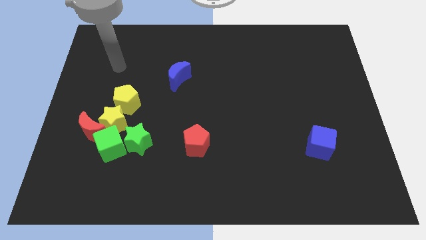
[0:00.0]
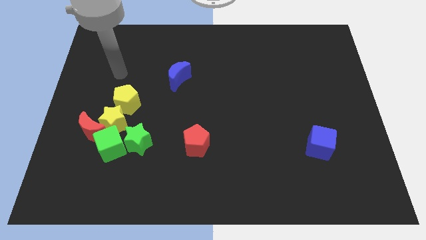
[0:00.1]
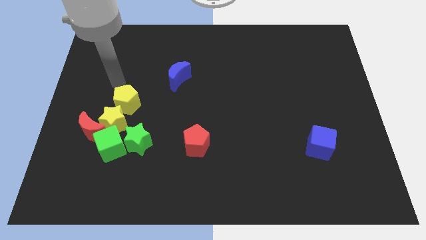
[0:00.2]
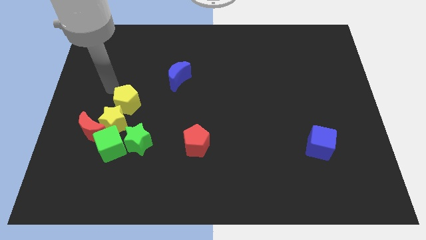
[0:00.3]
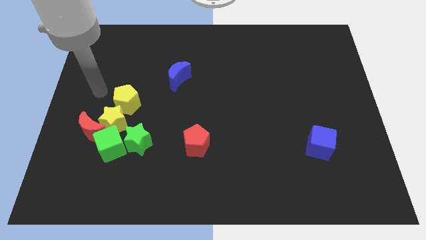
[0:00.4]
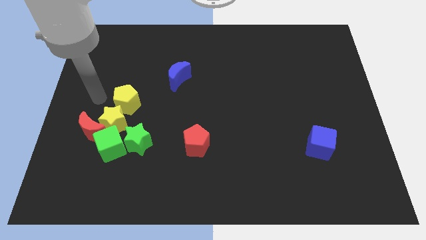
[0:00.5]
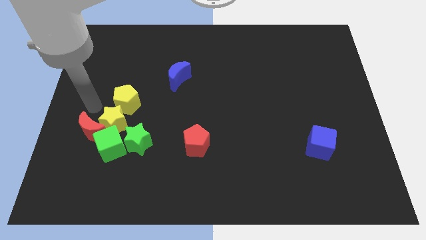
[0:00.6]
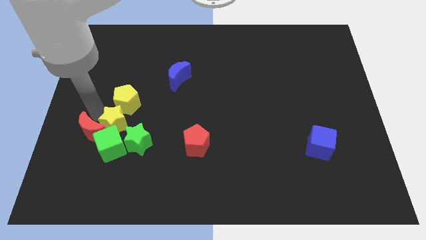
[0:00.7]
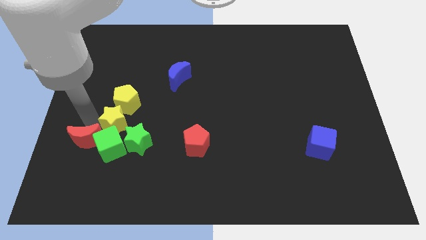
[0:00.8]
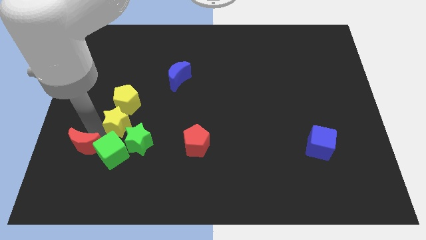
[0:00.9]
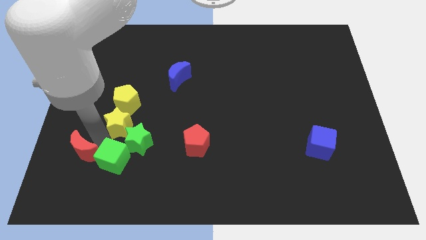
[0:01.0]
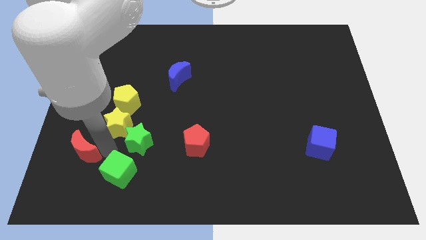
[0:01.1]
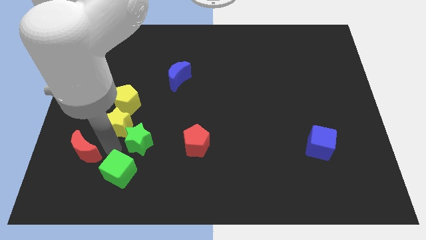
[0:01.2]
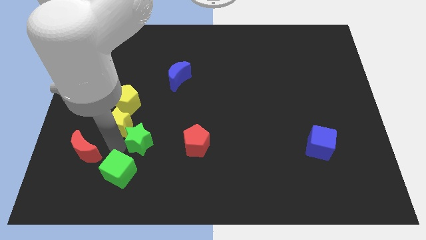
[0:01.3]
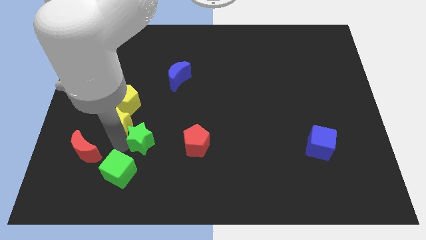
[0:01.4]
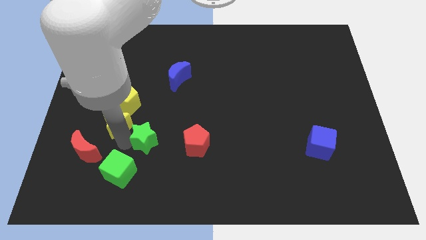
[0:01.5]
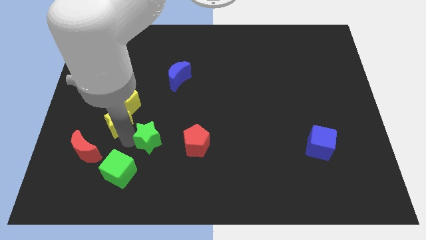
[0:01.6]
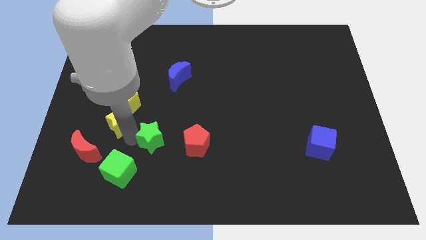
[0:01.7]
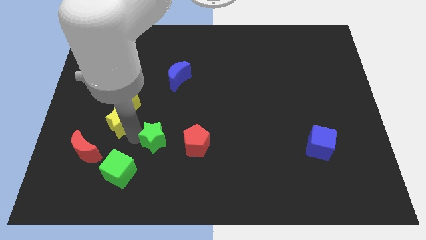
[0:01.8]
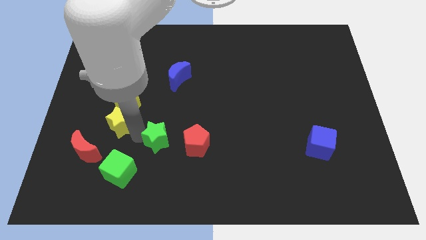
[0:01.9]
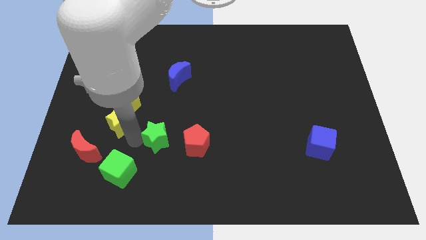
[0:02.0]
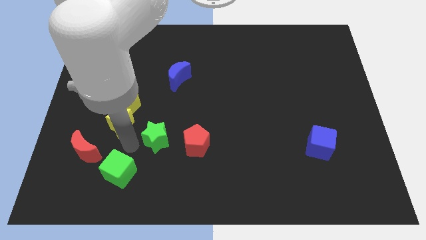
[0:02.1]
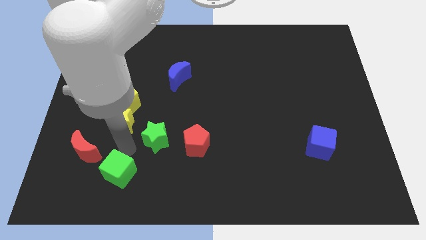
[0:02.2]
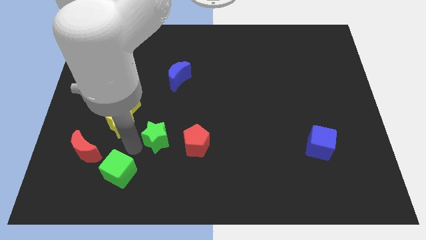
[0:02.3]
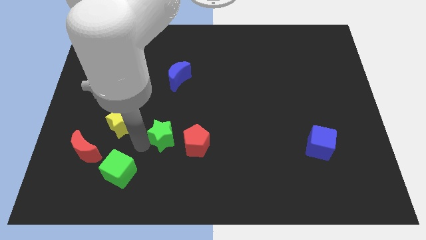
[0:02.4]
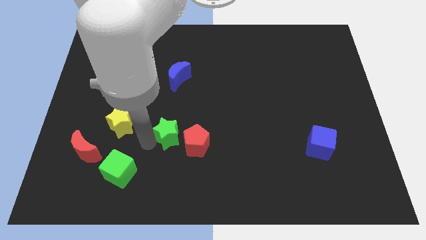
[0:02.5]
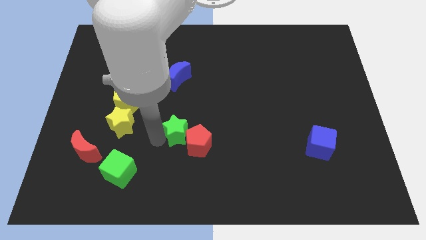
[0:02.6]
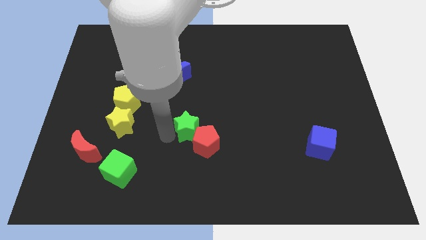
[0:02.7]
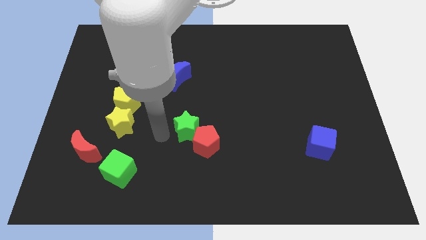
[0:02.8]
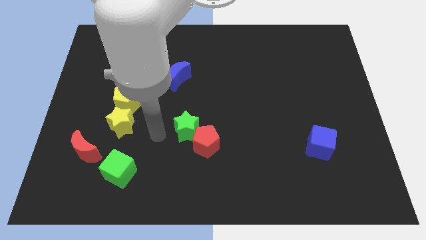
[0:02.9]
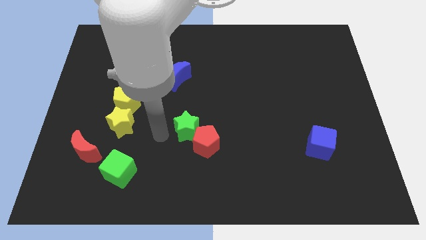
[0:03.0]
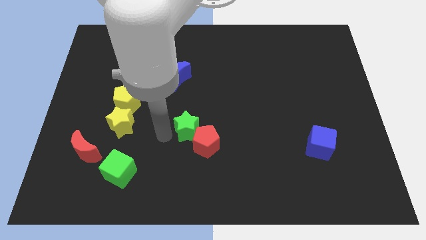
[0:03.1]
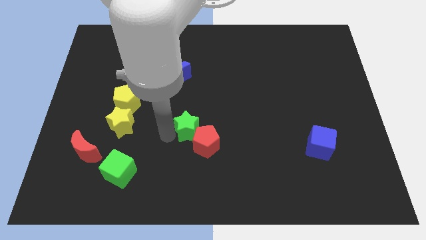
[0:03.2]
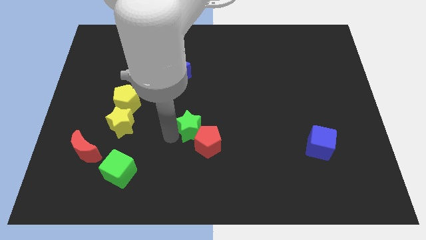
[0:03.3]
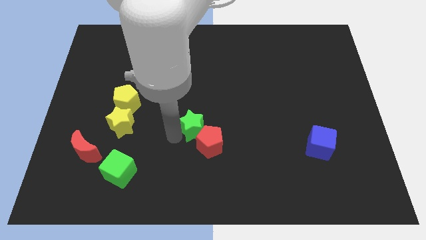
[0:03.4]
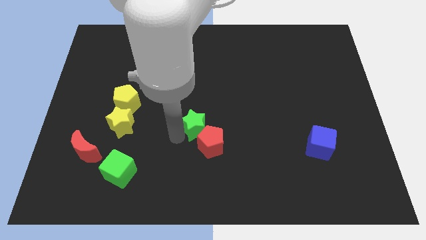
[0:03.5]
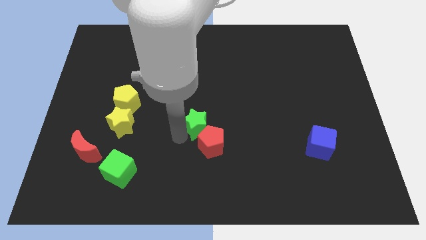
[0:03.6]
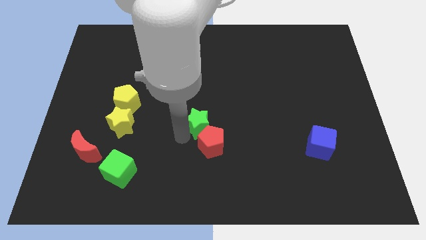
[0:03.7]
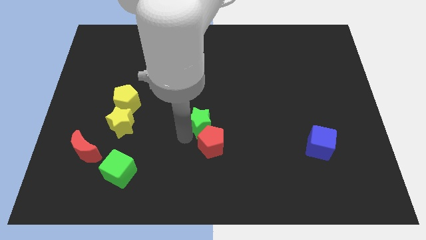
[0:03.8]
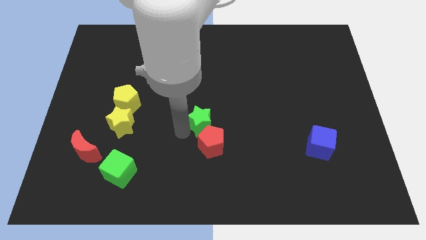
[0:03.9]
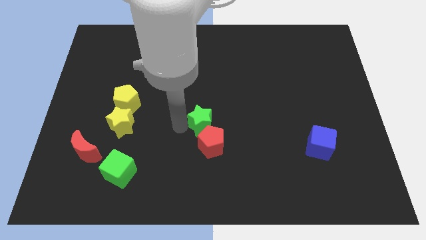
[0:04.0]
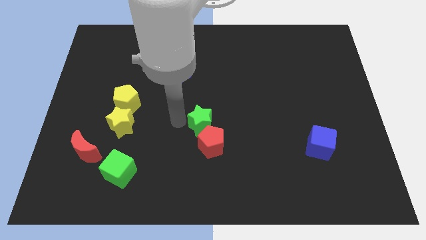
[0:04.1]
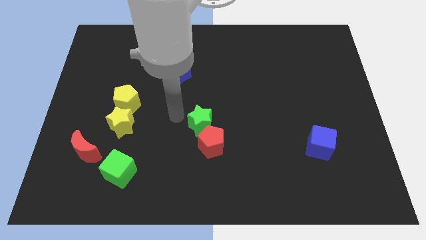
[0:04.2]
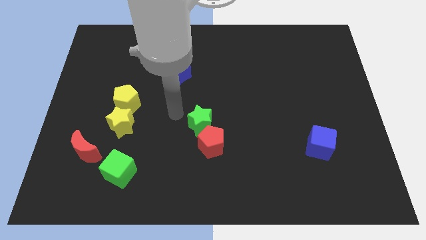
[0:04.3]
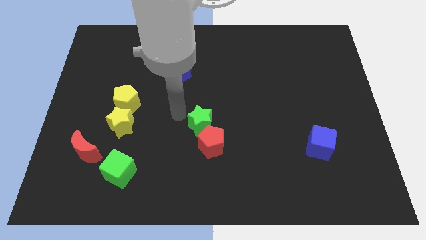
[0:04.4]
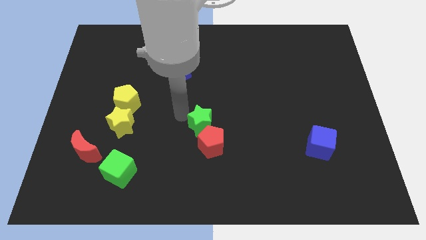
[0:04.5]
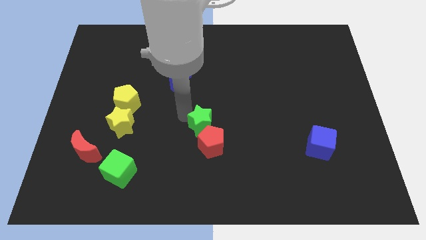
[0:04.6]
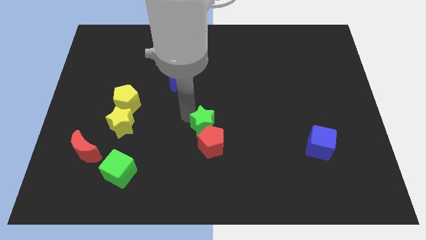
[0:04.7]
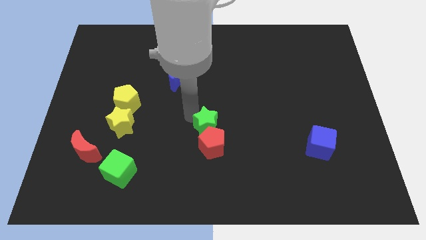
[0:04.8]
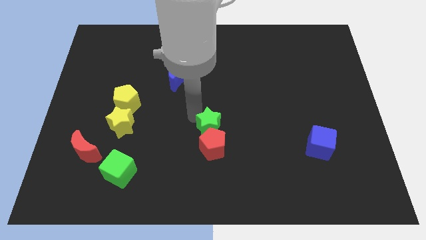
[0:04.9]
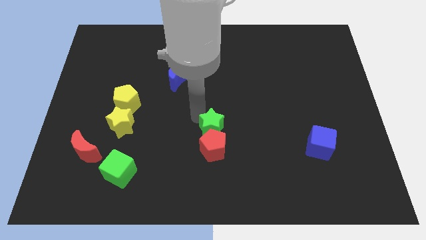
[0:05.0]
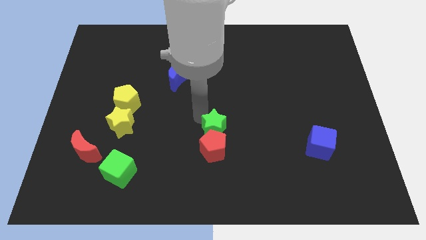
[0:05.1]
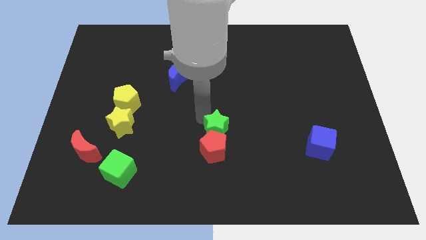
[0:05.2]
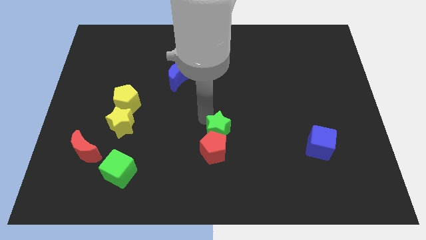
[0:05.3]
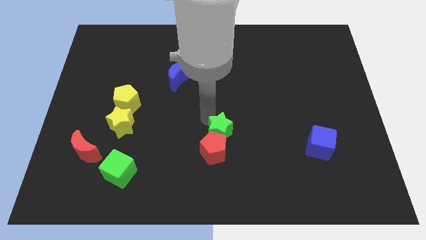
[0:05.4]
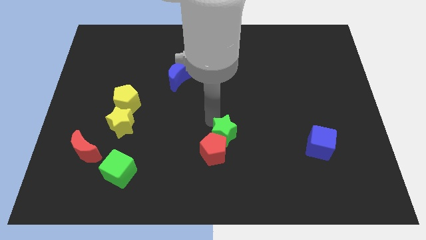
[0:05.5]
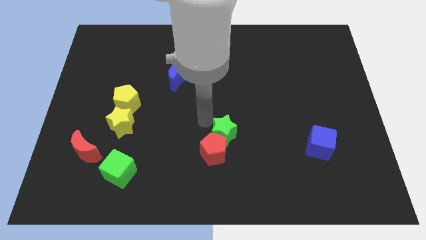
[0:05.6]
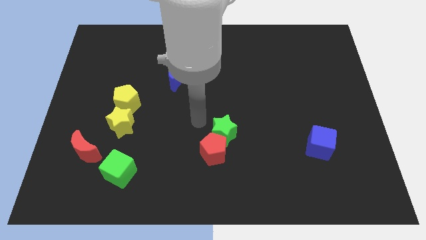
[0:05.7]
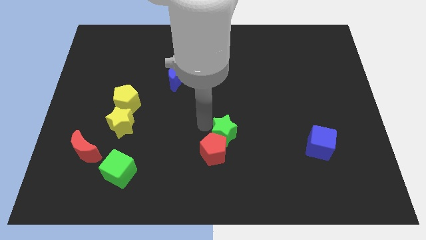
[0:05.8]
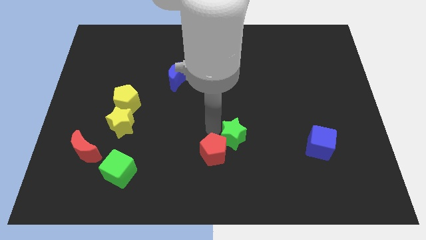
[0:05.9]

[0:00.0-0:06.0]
push the green star to the right of the red pentagon

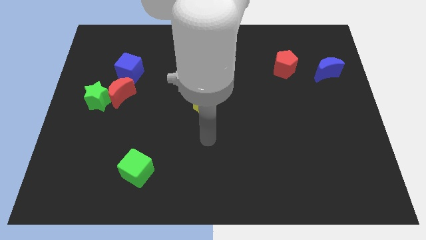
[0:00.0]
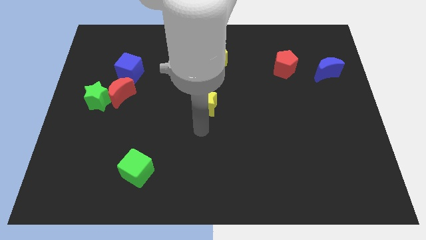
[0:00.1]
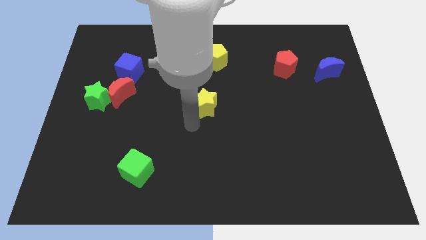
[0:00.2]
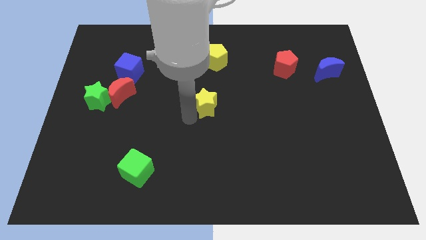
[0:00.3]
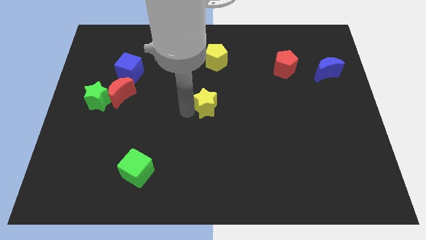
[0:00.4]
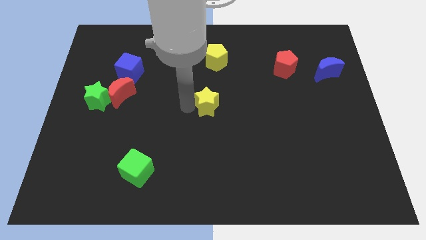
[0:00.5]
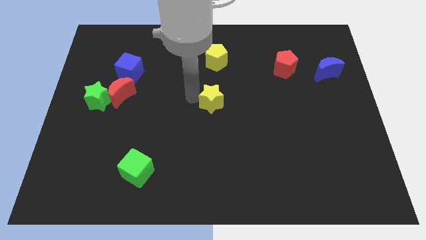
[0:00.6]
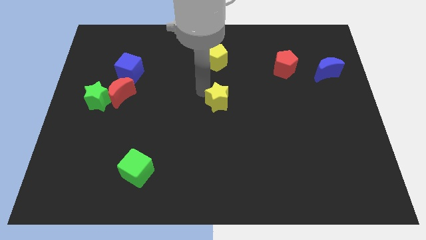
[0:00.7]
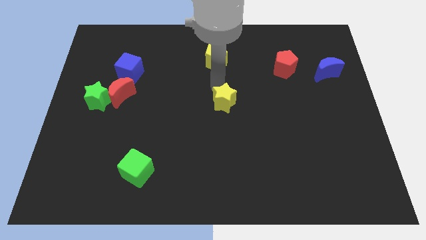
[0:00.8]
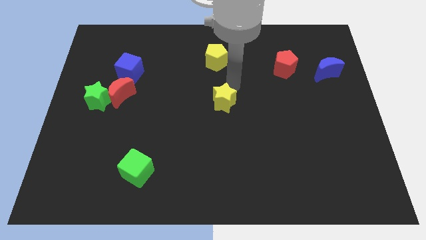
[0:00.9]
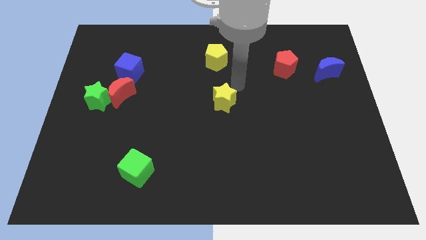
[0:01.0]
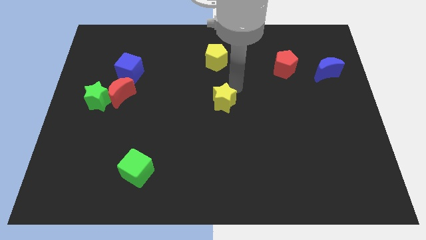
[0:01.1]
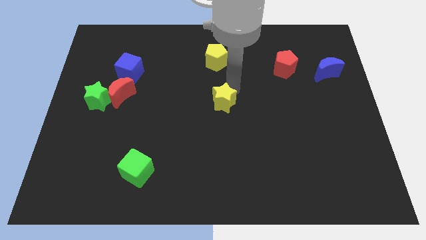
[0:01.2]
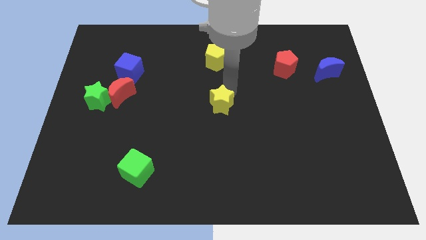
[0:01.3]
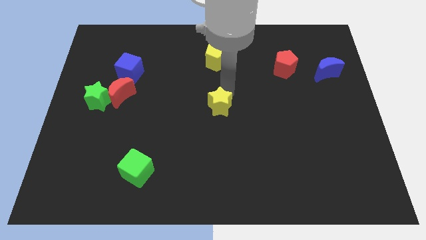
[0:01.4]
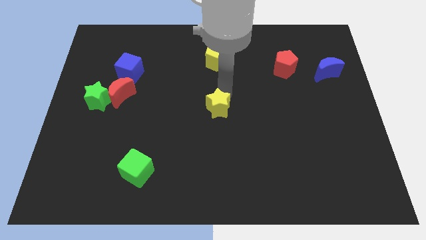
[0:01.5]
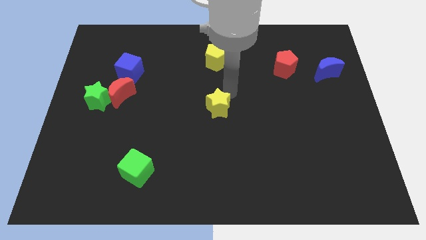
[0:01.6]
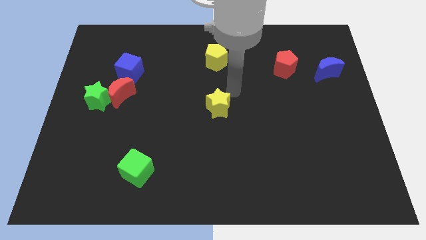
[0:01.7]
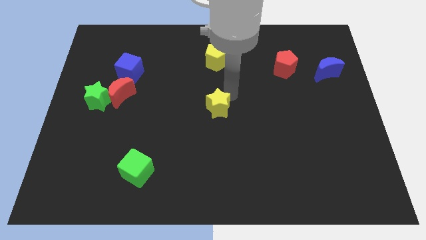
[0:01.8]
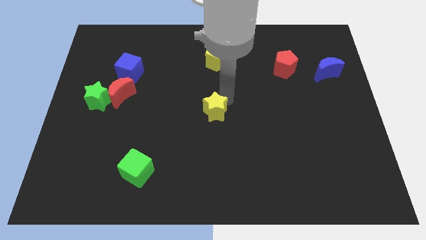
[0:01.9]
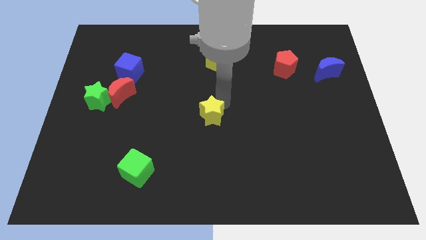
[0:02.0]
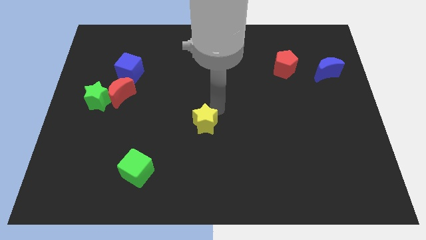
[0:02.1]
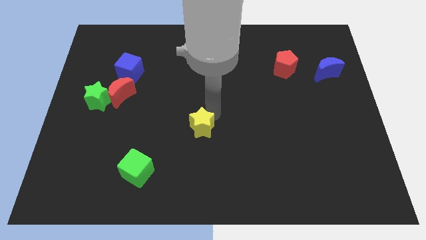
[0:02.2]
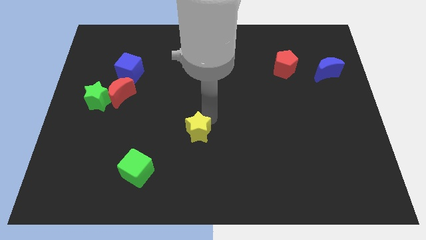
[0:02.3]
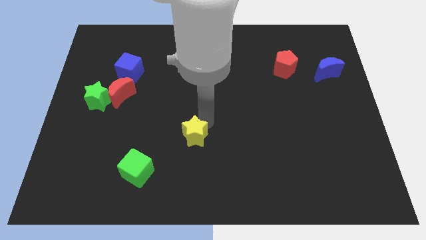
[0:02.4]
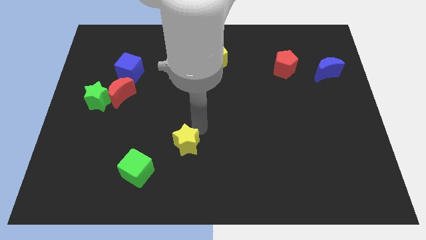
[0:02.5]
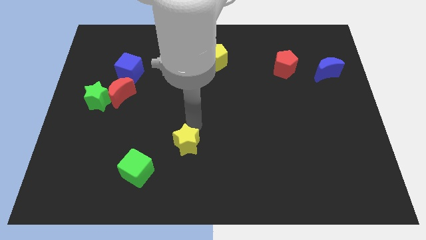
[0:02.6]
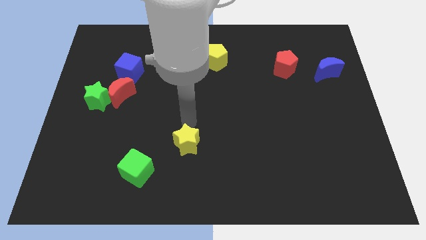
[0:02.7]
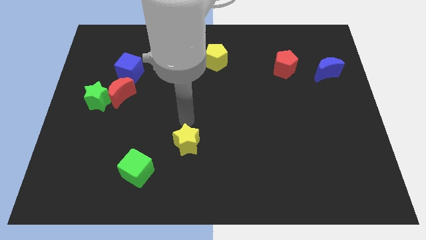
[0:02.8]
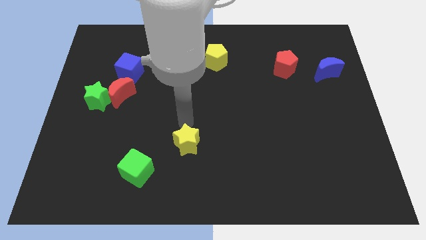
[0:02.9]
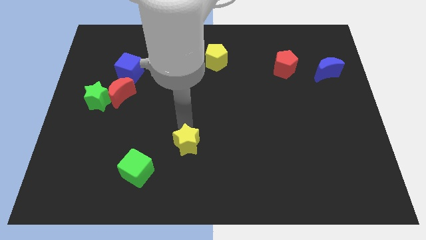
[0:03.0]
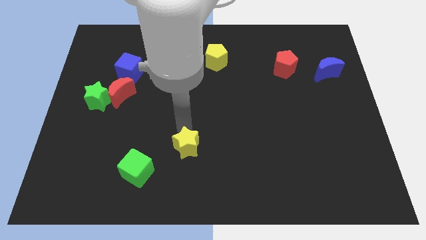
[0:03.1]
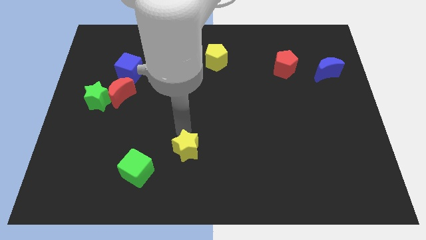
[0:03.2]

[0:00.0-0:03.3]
slide the yellow star right of the green cube
